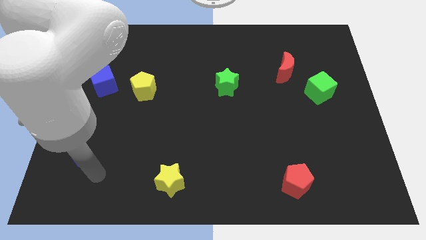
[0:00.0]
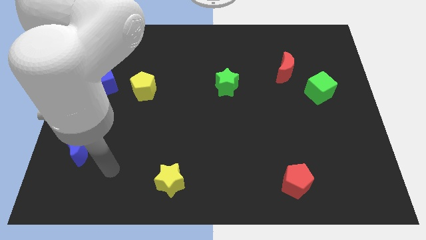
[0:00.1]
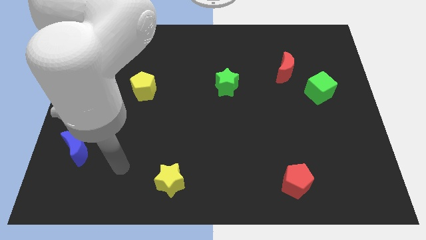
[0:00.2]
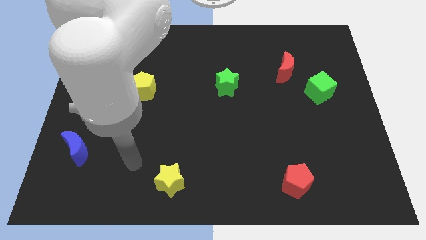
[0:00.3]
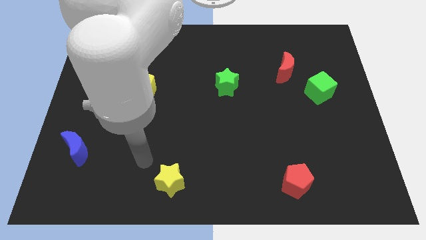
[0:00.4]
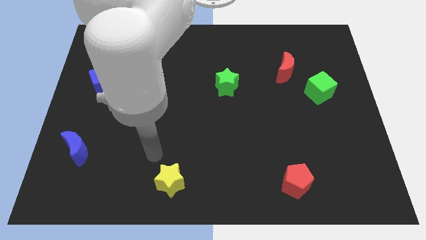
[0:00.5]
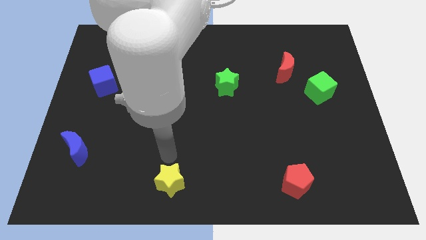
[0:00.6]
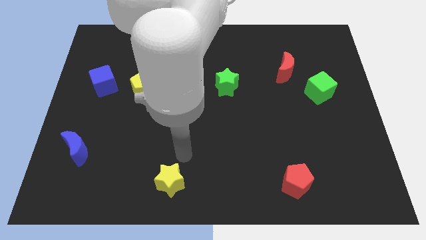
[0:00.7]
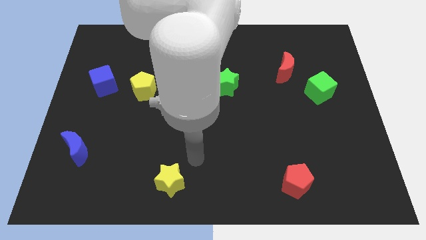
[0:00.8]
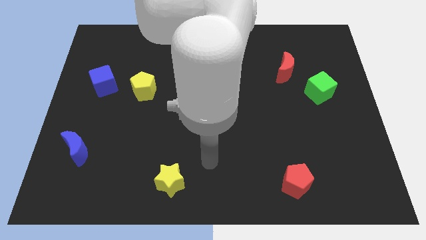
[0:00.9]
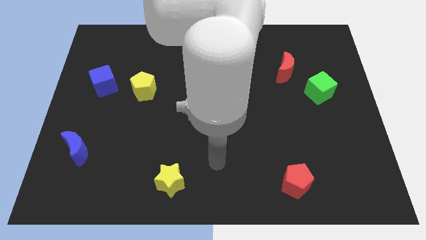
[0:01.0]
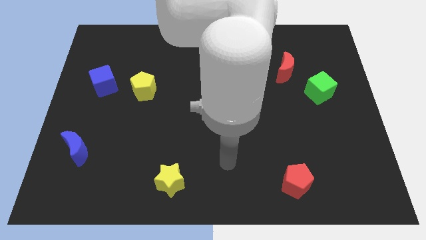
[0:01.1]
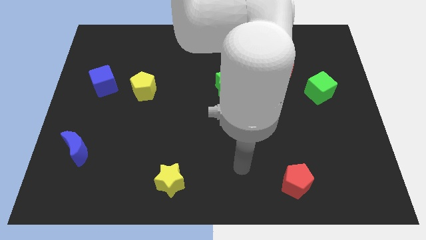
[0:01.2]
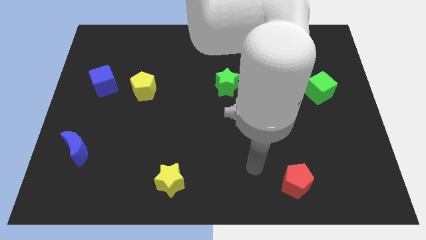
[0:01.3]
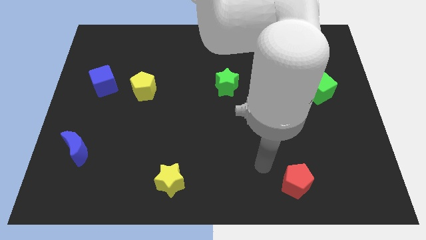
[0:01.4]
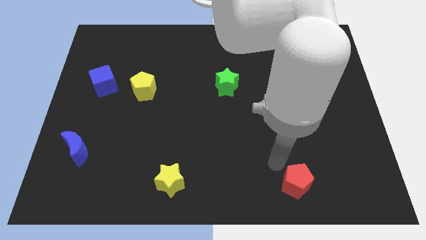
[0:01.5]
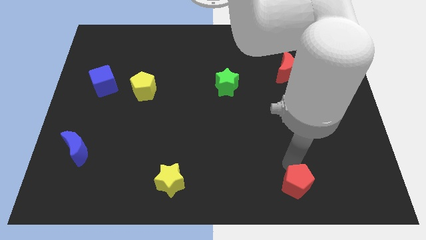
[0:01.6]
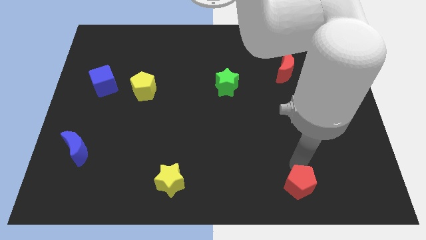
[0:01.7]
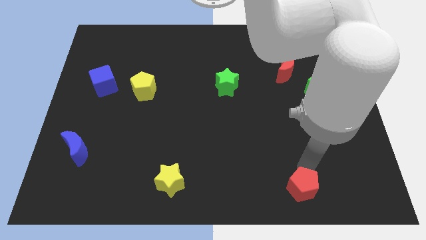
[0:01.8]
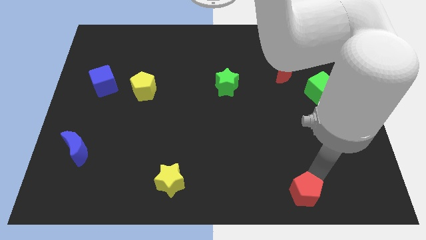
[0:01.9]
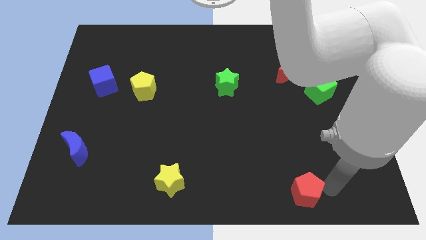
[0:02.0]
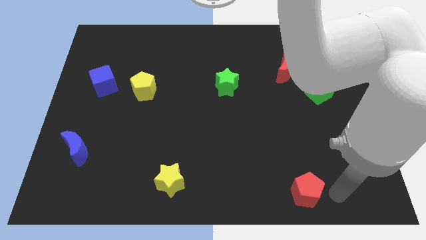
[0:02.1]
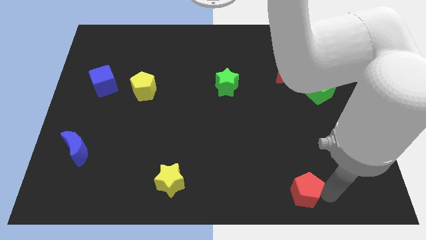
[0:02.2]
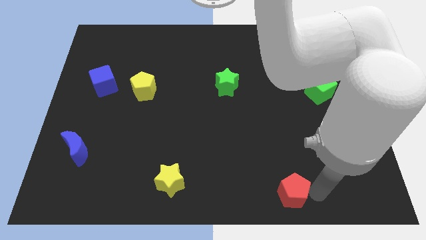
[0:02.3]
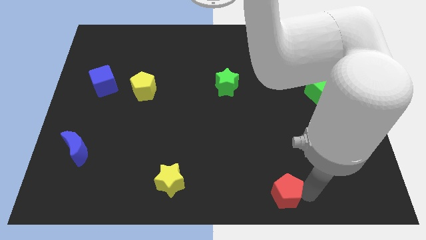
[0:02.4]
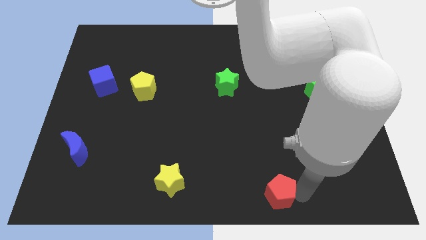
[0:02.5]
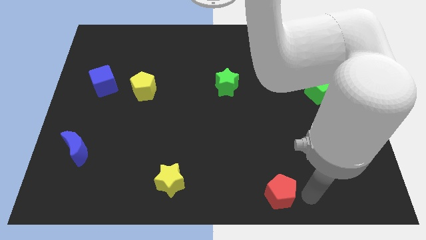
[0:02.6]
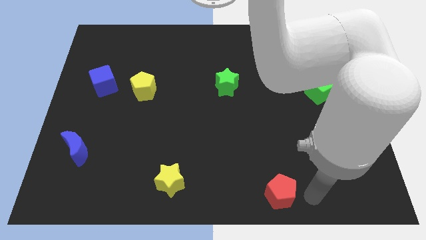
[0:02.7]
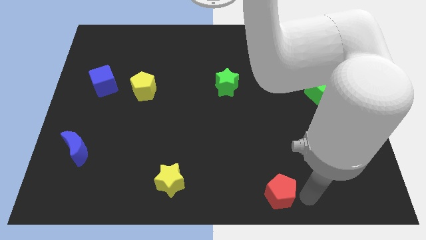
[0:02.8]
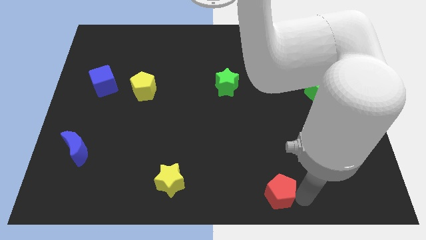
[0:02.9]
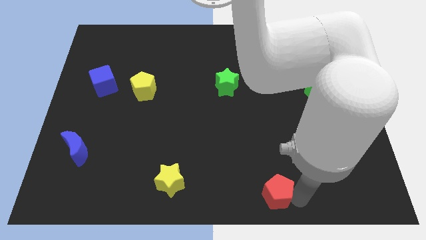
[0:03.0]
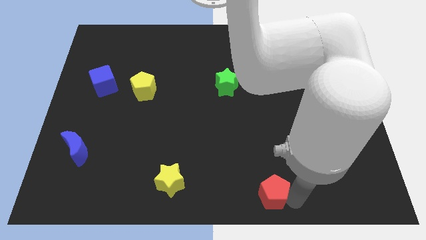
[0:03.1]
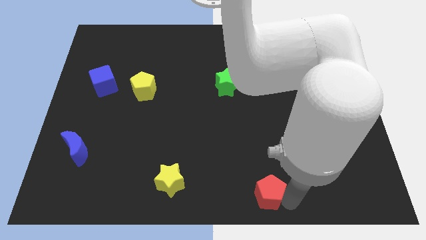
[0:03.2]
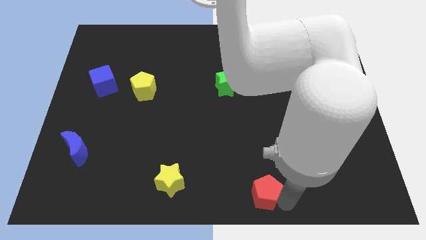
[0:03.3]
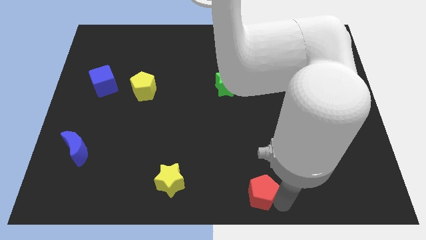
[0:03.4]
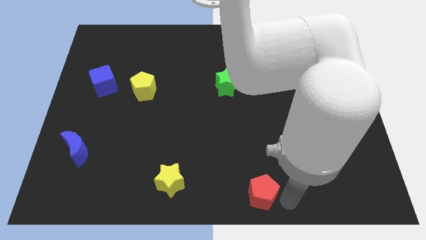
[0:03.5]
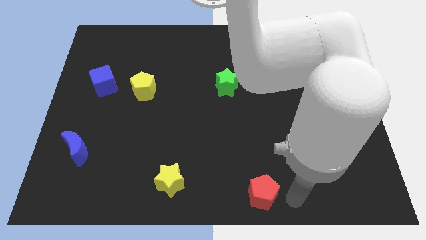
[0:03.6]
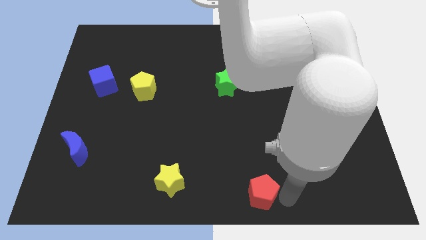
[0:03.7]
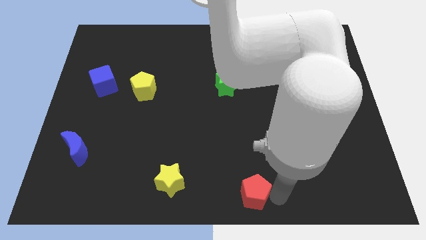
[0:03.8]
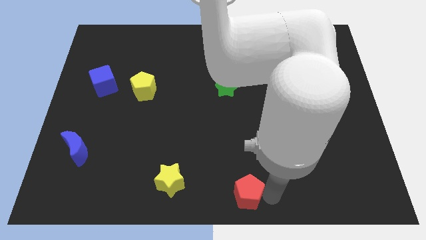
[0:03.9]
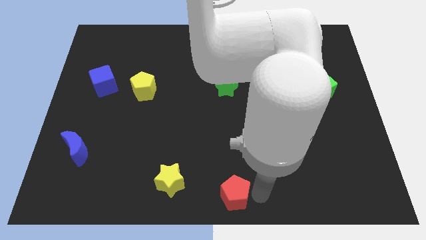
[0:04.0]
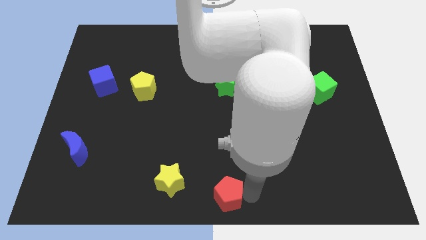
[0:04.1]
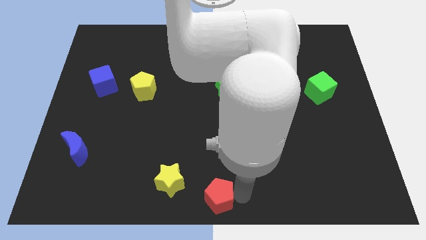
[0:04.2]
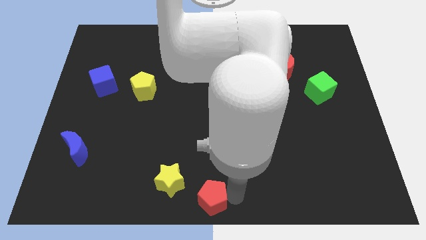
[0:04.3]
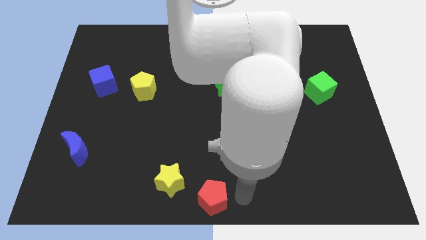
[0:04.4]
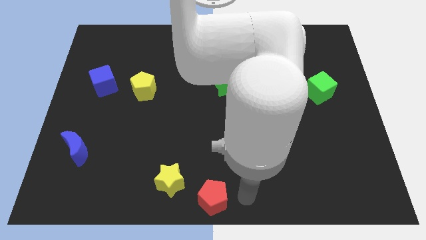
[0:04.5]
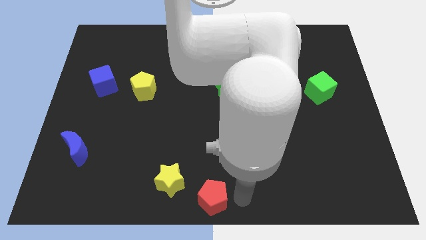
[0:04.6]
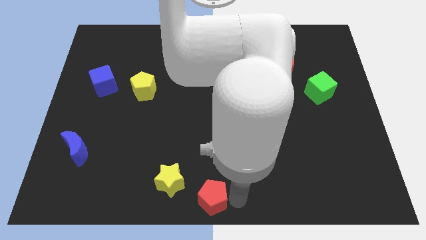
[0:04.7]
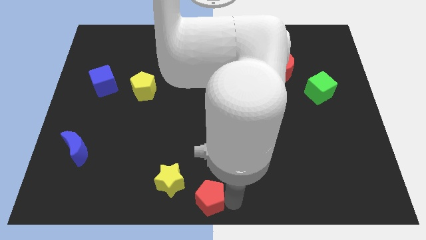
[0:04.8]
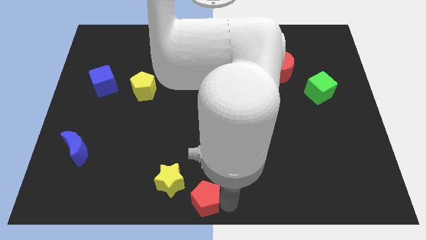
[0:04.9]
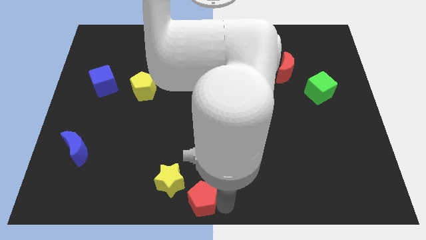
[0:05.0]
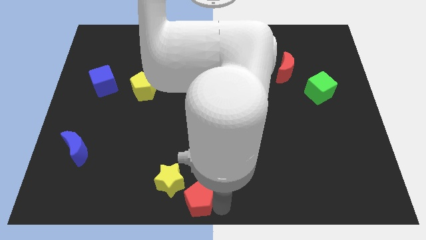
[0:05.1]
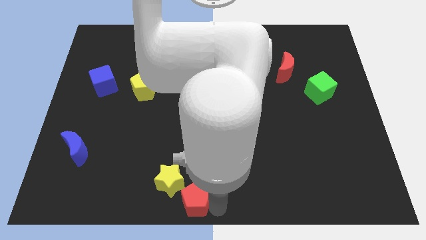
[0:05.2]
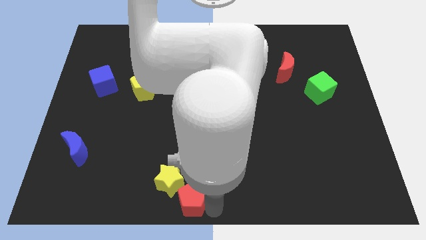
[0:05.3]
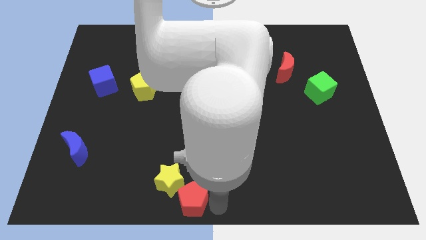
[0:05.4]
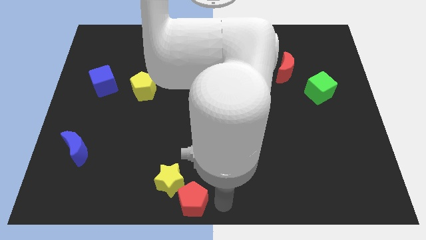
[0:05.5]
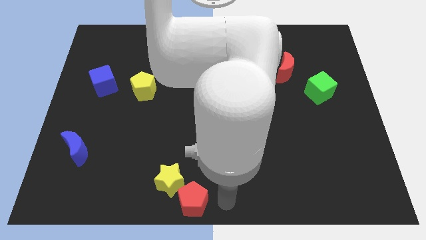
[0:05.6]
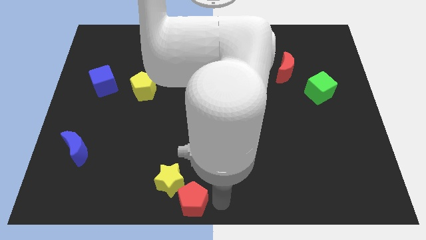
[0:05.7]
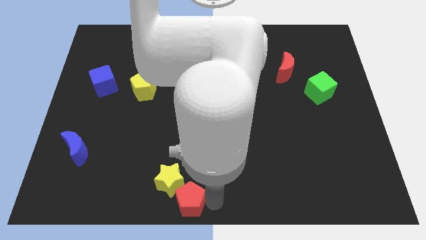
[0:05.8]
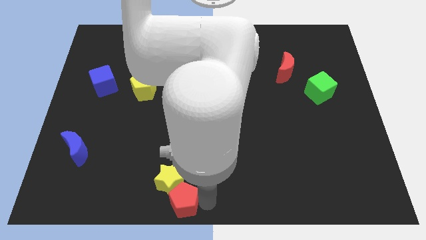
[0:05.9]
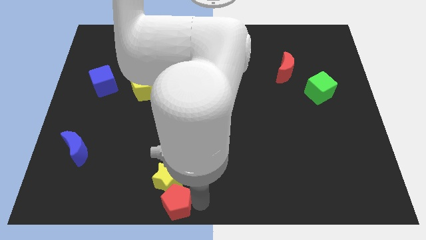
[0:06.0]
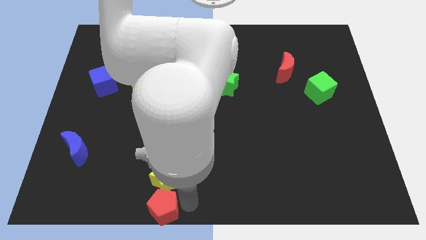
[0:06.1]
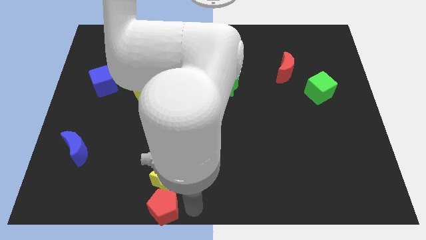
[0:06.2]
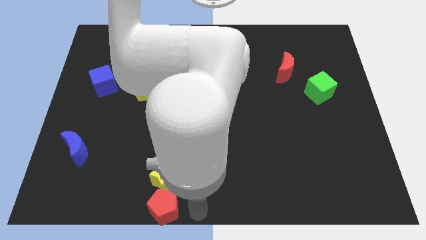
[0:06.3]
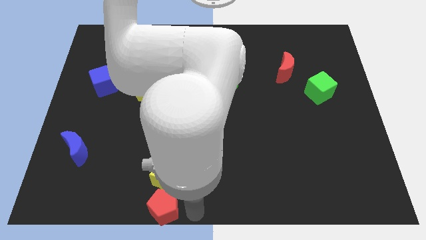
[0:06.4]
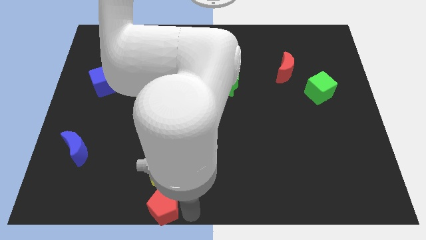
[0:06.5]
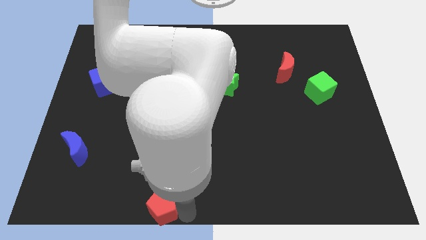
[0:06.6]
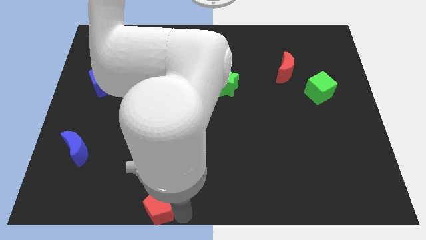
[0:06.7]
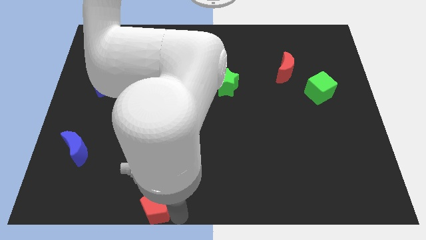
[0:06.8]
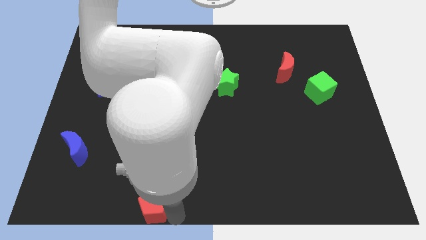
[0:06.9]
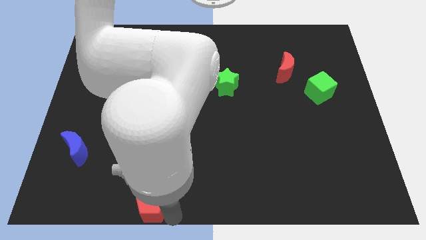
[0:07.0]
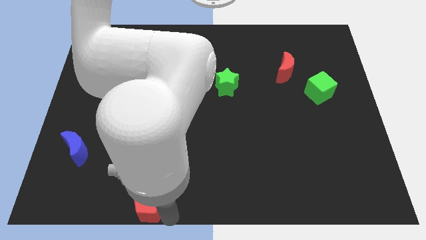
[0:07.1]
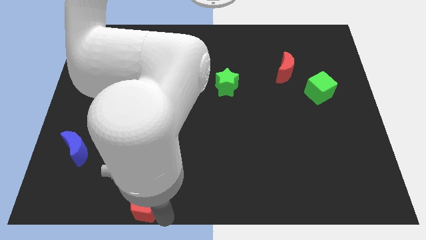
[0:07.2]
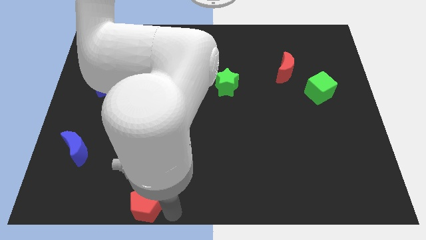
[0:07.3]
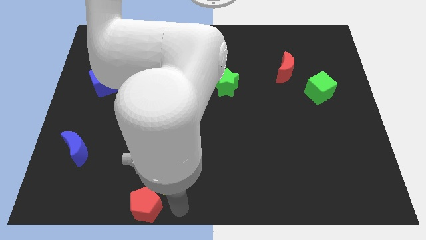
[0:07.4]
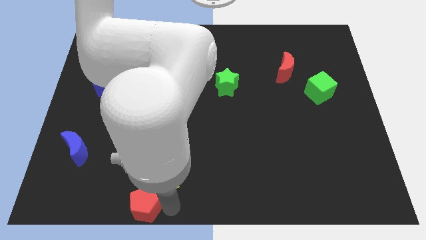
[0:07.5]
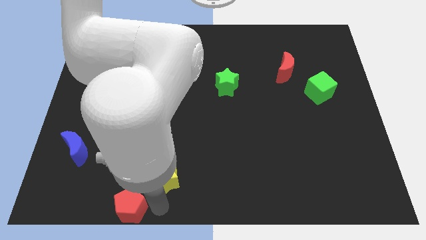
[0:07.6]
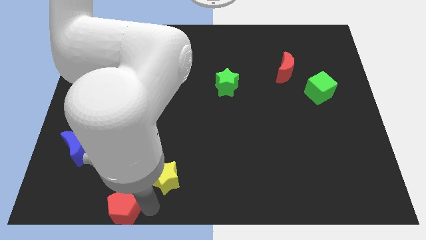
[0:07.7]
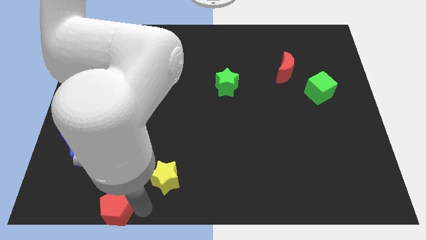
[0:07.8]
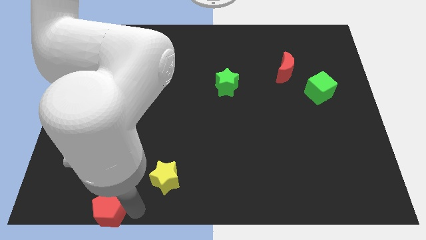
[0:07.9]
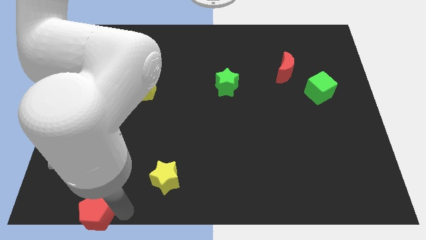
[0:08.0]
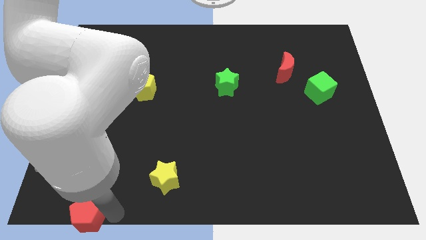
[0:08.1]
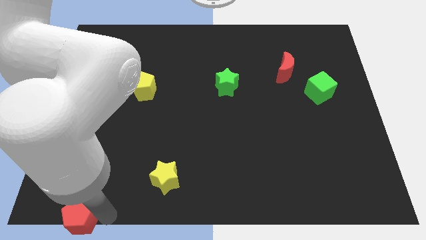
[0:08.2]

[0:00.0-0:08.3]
push the red pentagon to the bottom left corner
